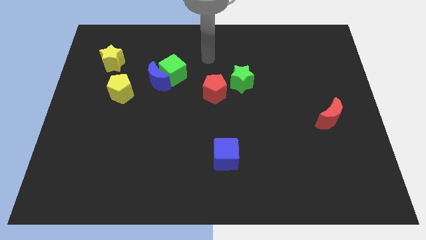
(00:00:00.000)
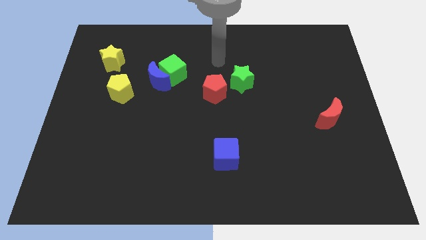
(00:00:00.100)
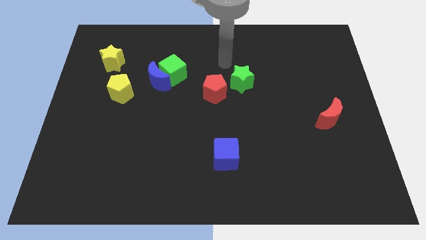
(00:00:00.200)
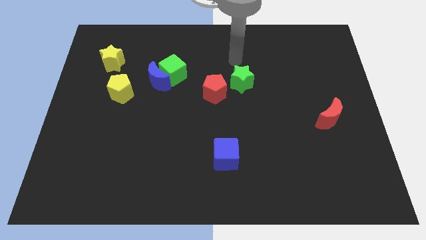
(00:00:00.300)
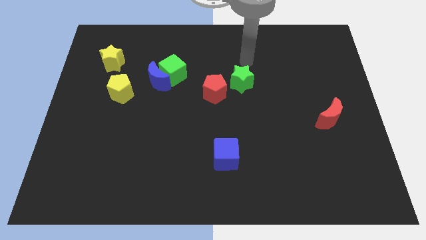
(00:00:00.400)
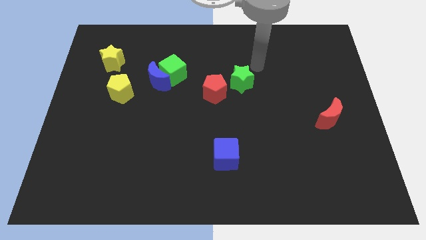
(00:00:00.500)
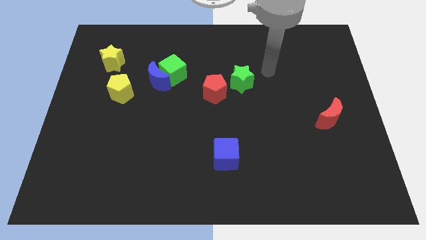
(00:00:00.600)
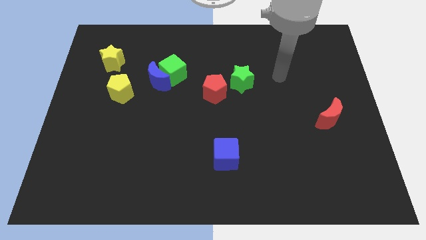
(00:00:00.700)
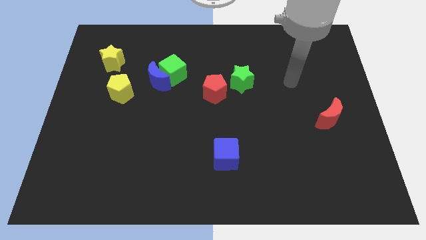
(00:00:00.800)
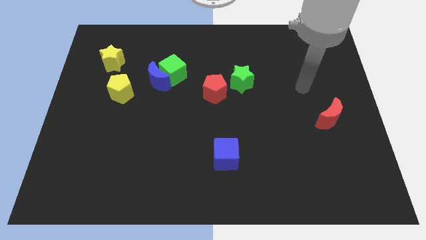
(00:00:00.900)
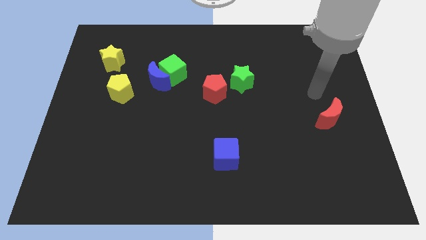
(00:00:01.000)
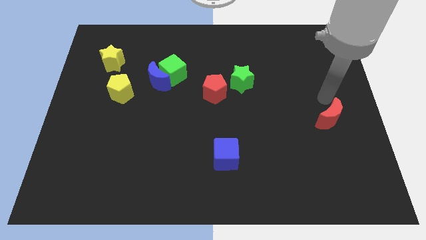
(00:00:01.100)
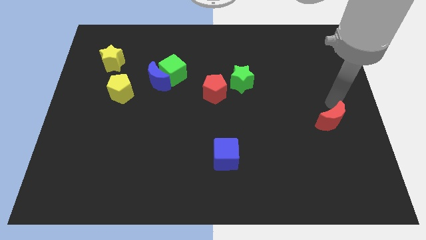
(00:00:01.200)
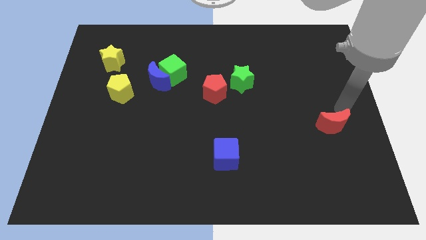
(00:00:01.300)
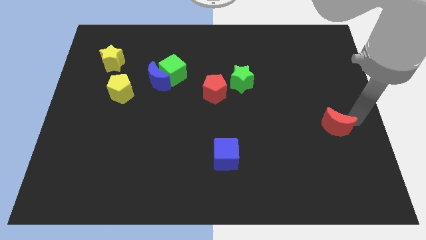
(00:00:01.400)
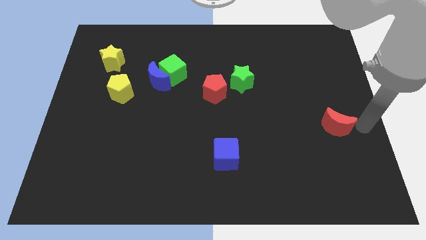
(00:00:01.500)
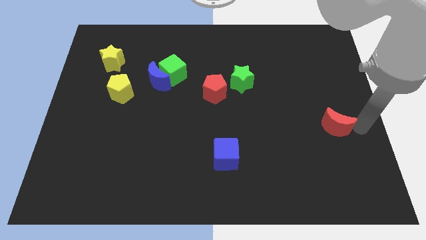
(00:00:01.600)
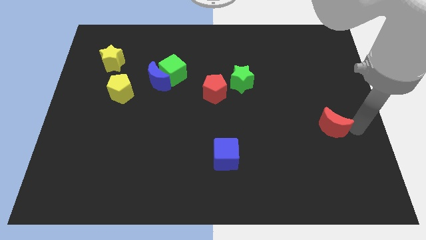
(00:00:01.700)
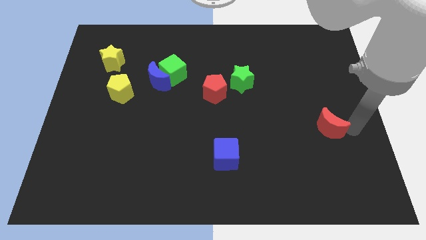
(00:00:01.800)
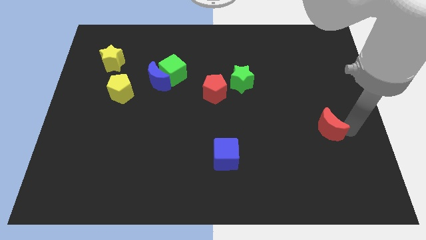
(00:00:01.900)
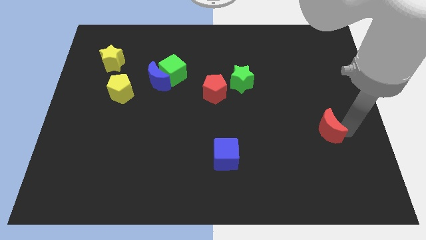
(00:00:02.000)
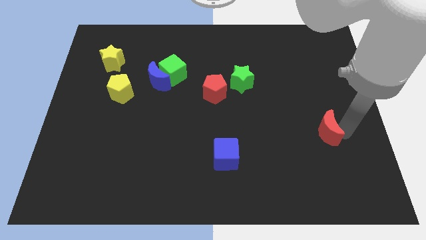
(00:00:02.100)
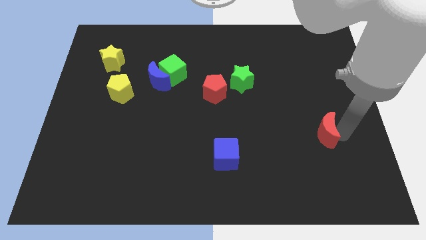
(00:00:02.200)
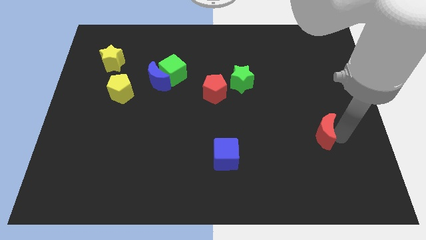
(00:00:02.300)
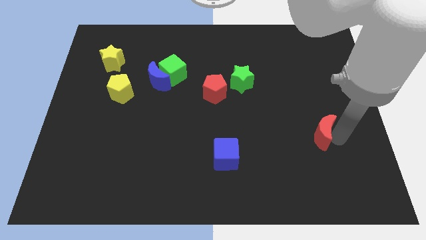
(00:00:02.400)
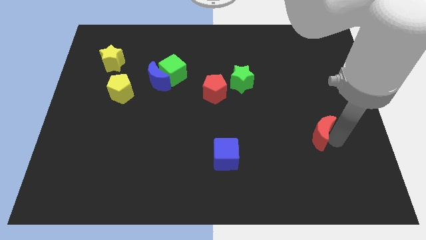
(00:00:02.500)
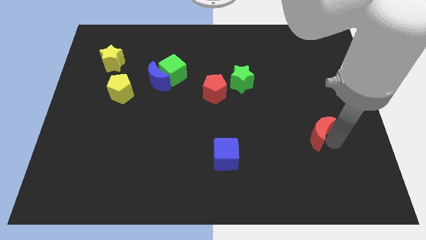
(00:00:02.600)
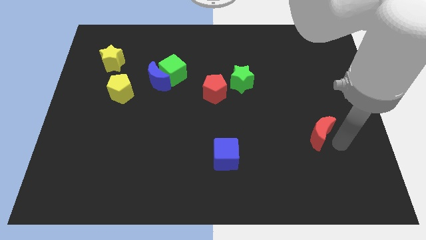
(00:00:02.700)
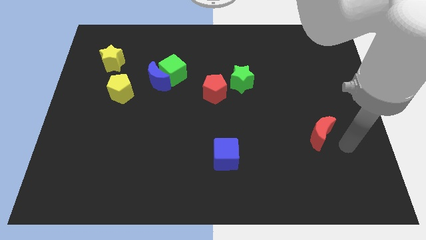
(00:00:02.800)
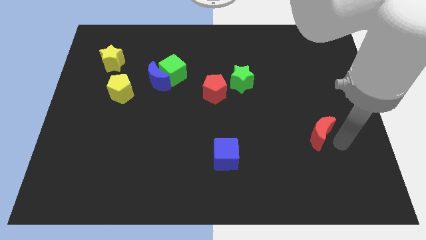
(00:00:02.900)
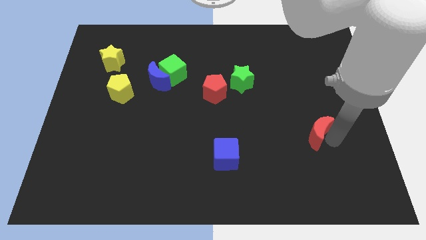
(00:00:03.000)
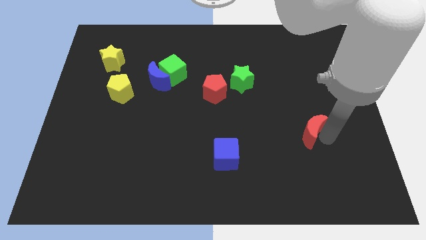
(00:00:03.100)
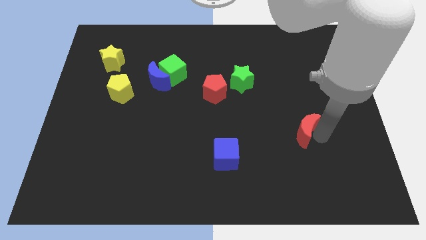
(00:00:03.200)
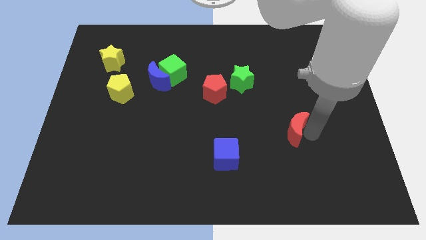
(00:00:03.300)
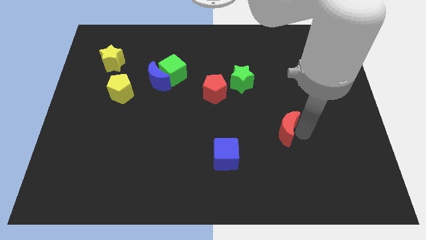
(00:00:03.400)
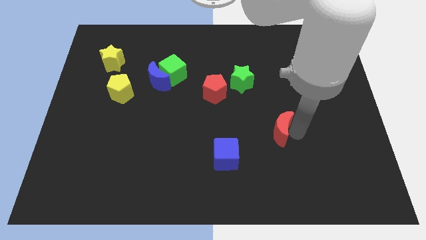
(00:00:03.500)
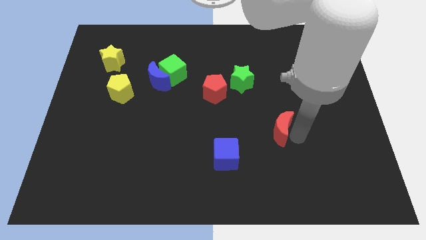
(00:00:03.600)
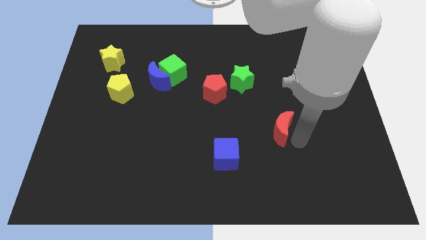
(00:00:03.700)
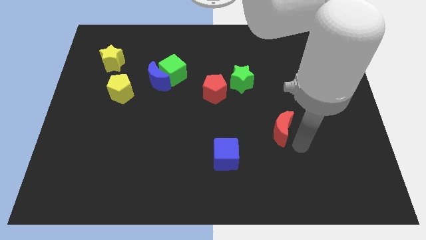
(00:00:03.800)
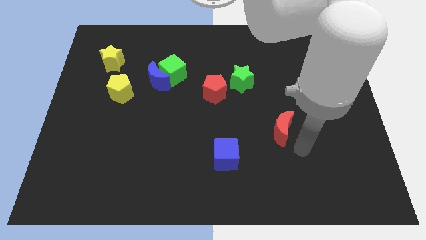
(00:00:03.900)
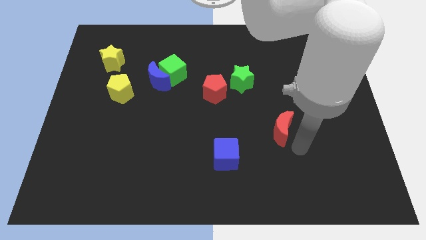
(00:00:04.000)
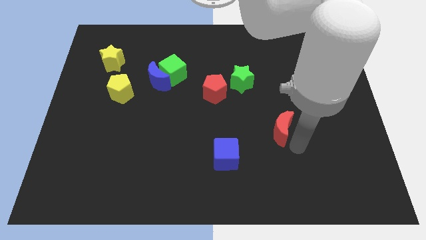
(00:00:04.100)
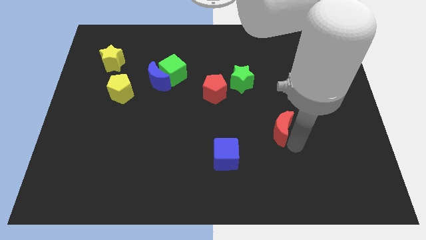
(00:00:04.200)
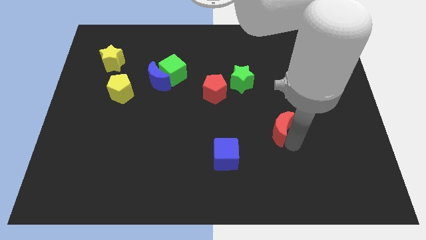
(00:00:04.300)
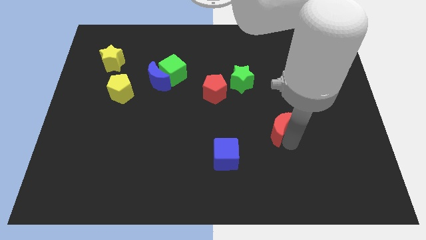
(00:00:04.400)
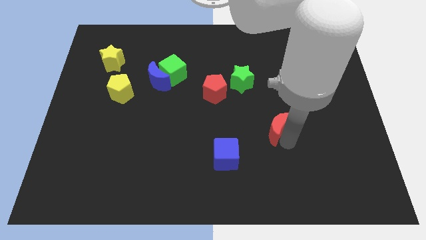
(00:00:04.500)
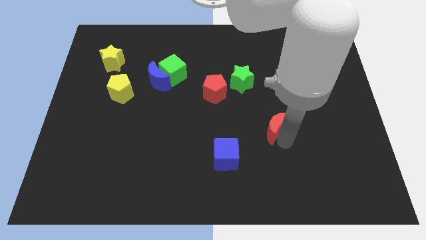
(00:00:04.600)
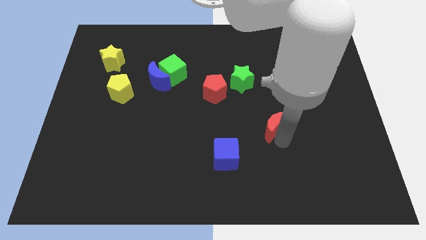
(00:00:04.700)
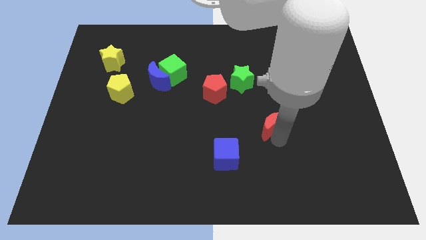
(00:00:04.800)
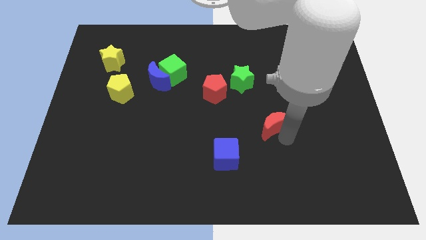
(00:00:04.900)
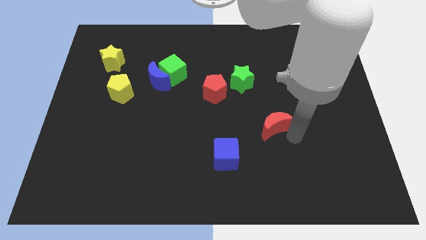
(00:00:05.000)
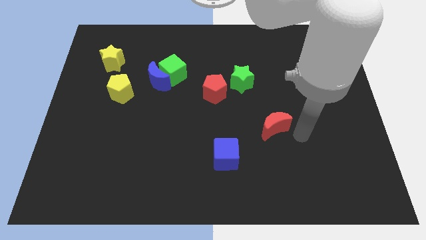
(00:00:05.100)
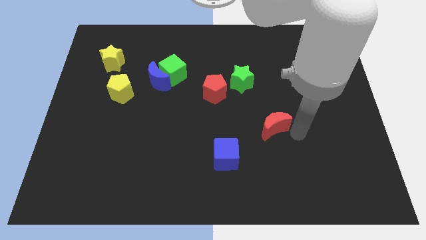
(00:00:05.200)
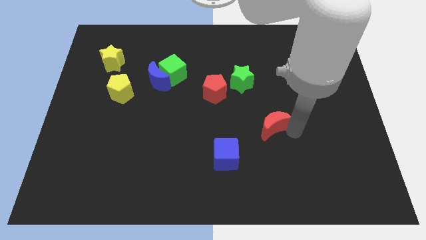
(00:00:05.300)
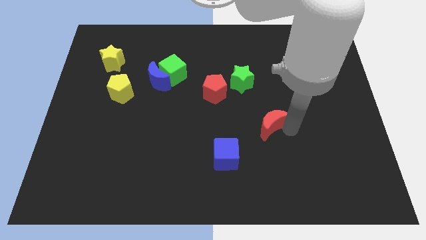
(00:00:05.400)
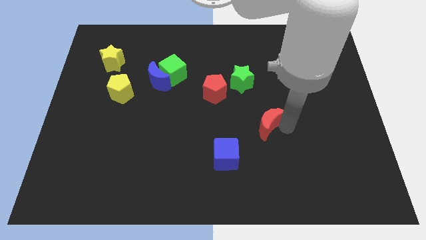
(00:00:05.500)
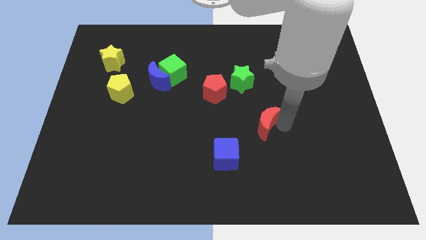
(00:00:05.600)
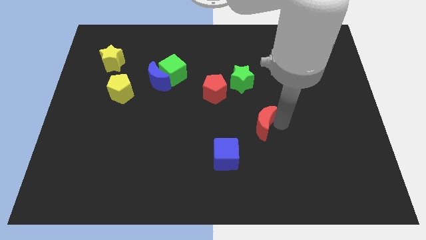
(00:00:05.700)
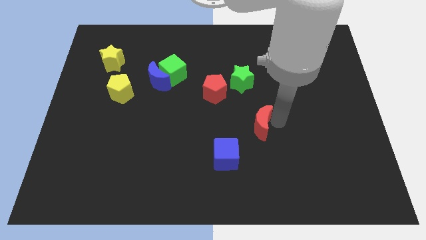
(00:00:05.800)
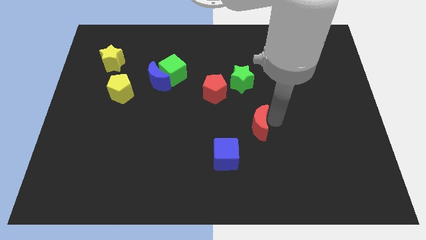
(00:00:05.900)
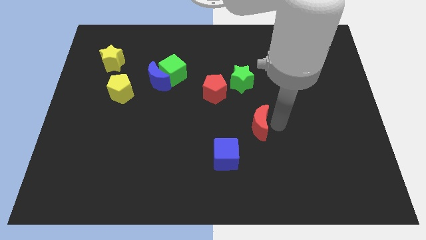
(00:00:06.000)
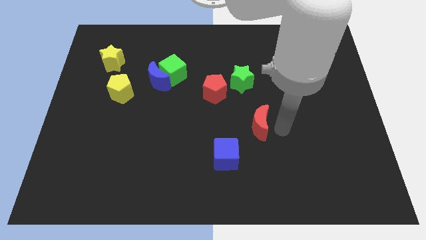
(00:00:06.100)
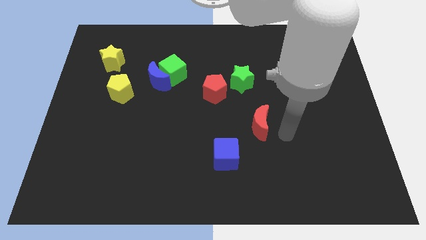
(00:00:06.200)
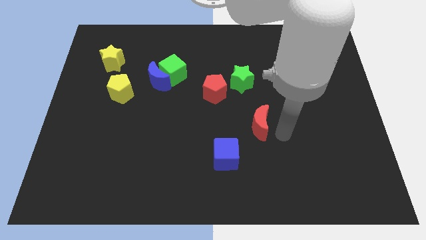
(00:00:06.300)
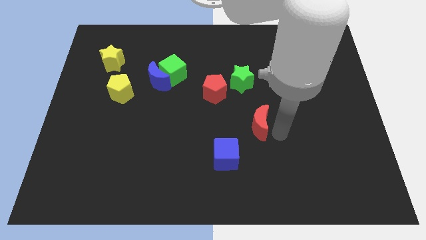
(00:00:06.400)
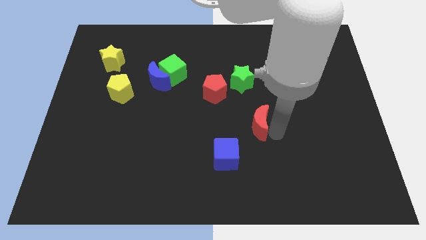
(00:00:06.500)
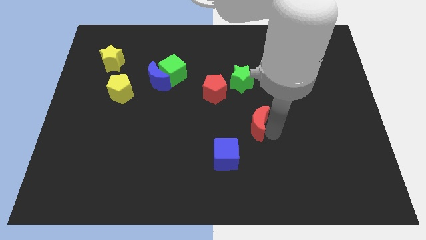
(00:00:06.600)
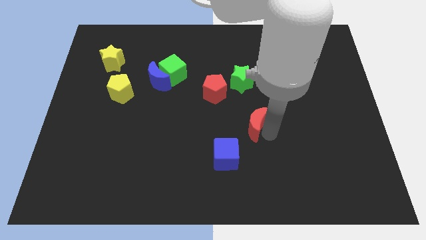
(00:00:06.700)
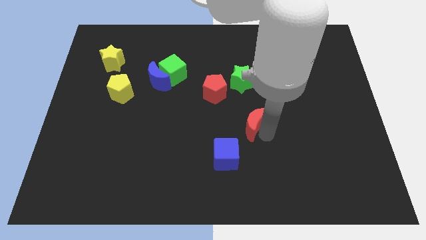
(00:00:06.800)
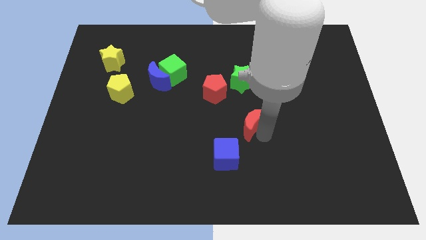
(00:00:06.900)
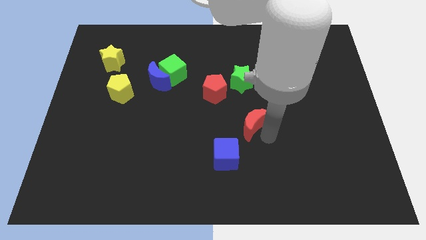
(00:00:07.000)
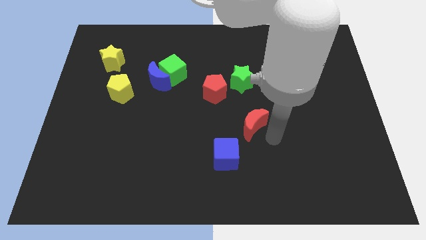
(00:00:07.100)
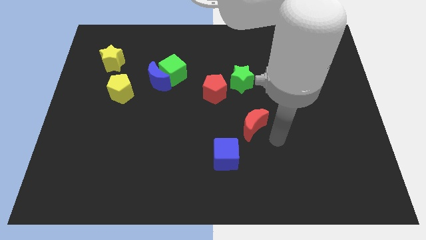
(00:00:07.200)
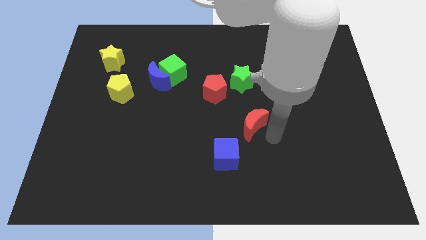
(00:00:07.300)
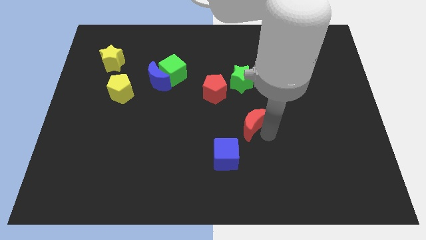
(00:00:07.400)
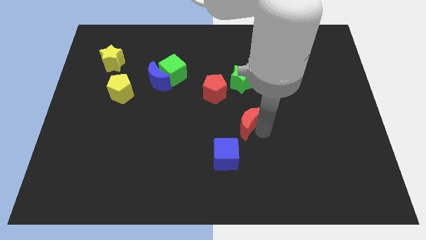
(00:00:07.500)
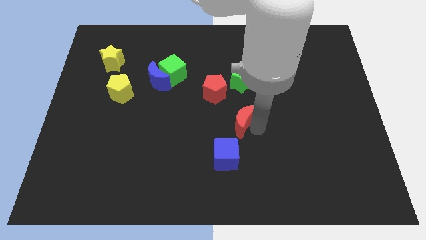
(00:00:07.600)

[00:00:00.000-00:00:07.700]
move the red moon to the left
